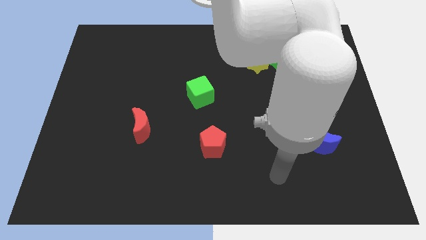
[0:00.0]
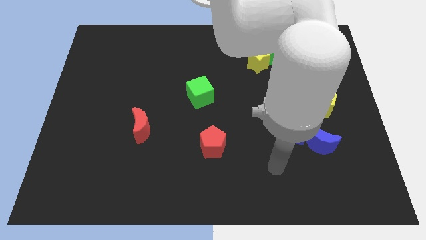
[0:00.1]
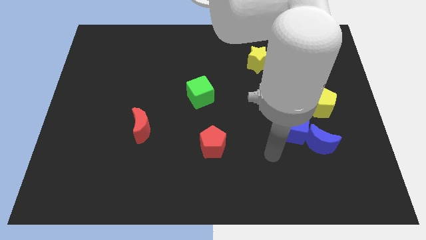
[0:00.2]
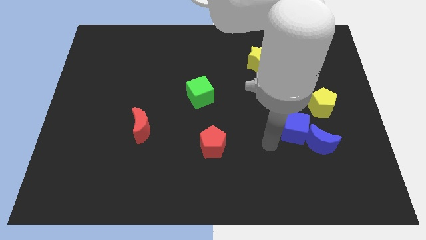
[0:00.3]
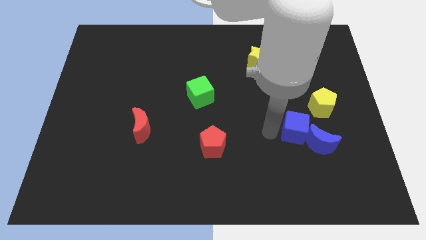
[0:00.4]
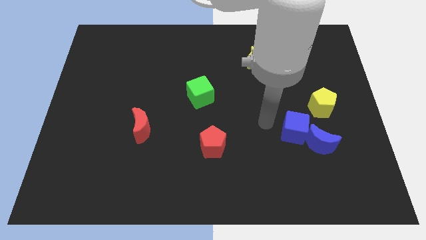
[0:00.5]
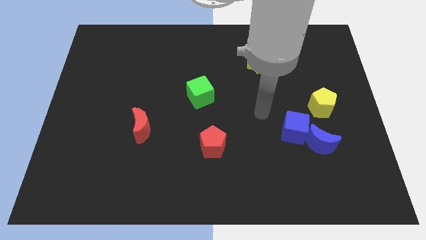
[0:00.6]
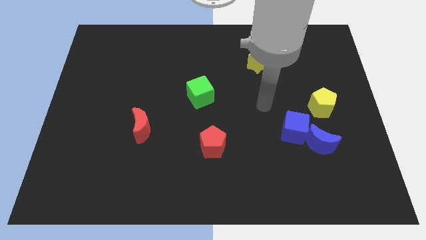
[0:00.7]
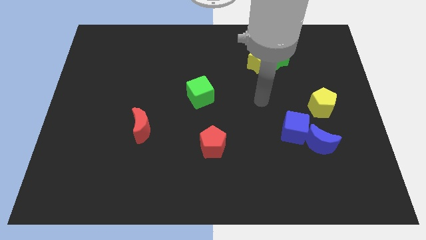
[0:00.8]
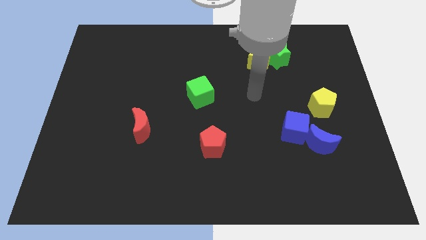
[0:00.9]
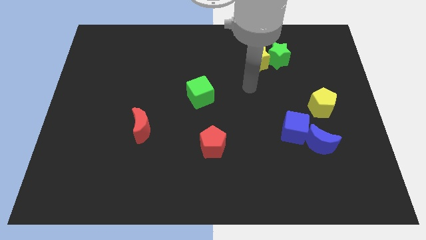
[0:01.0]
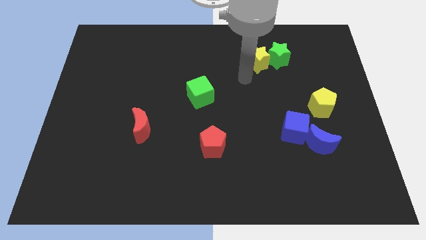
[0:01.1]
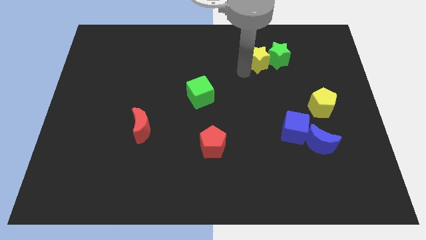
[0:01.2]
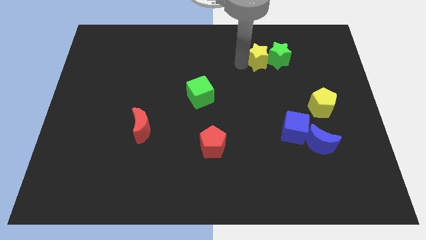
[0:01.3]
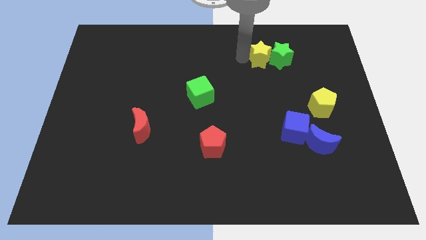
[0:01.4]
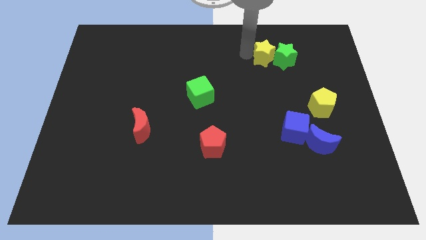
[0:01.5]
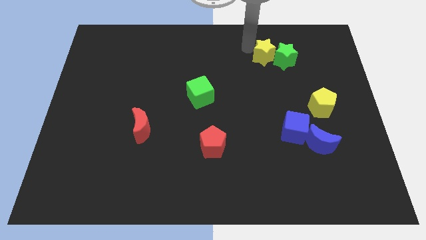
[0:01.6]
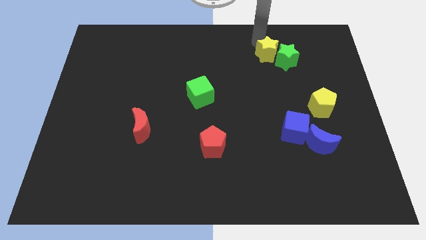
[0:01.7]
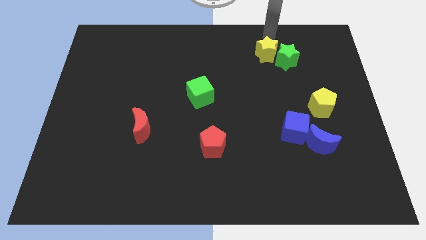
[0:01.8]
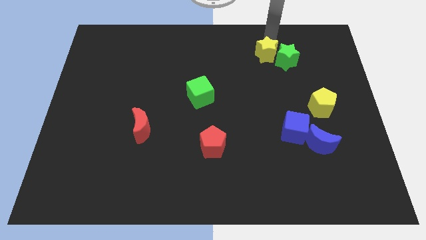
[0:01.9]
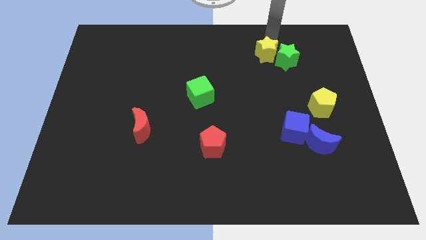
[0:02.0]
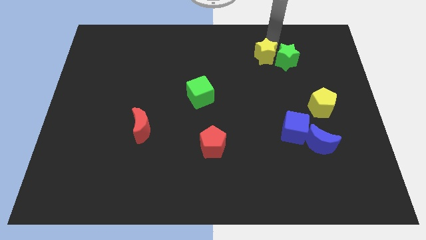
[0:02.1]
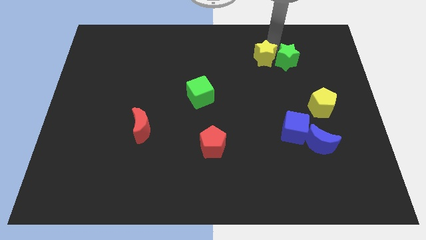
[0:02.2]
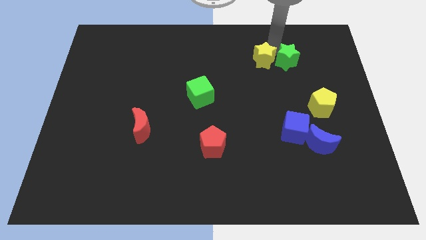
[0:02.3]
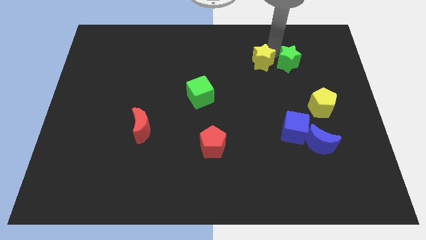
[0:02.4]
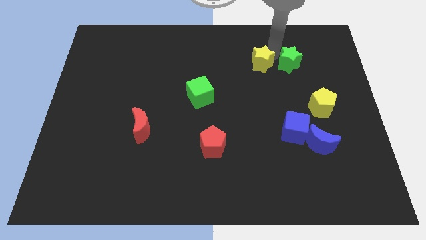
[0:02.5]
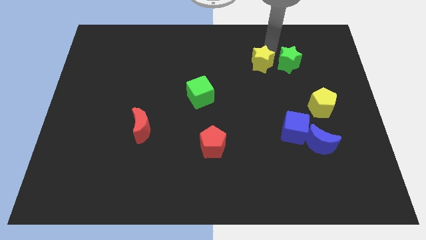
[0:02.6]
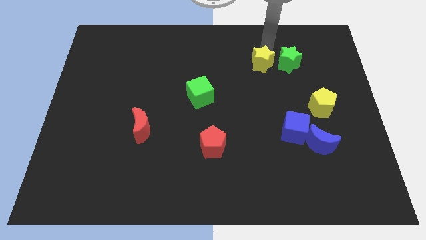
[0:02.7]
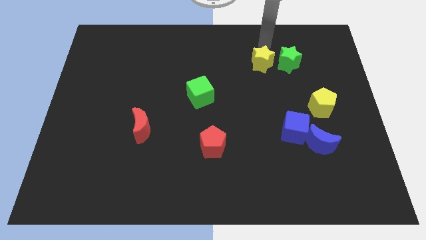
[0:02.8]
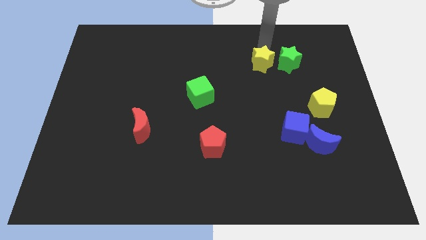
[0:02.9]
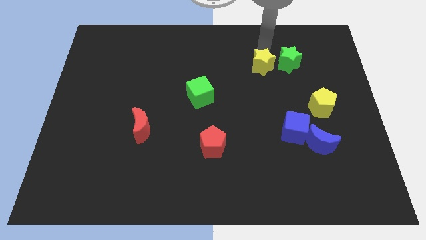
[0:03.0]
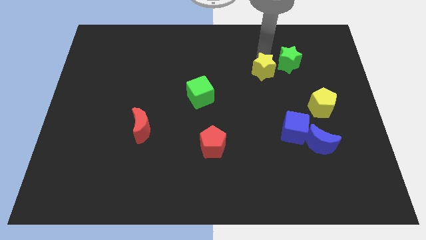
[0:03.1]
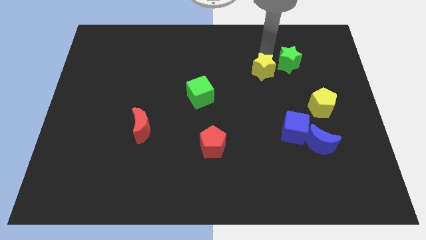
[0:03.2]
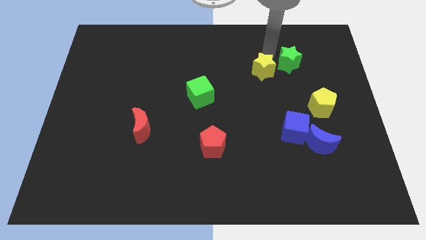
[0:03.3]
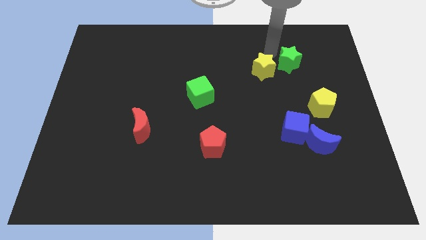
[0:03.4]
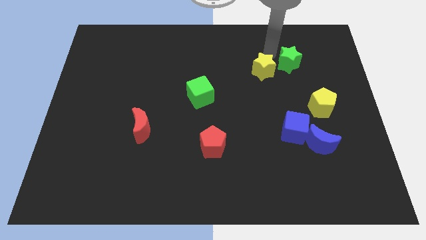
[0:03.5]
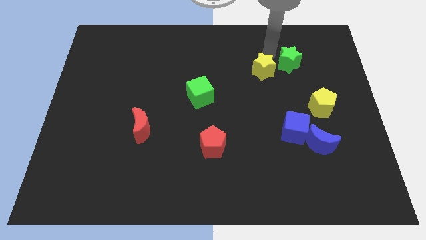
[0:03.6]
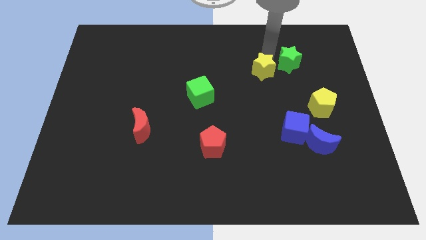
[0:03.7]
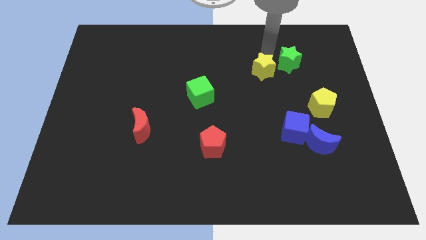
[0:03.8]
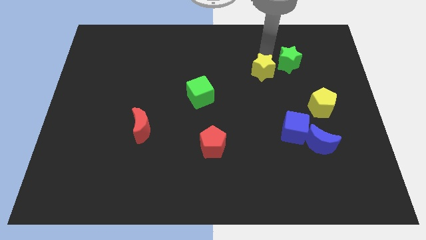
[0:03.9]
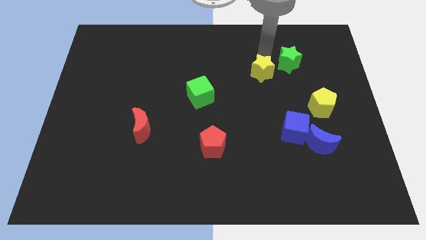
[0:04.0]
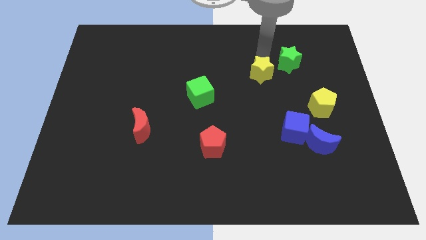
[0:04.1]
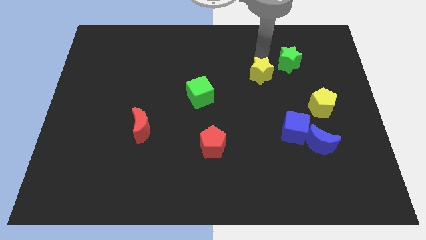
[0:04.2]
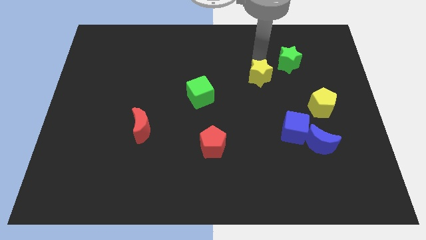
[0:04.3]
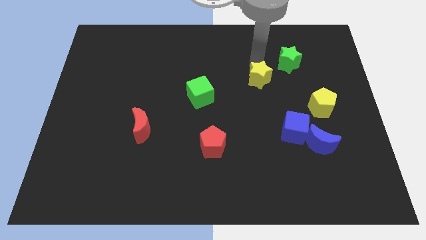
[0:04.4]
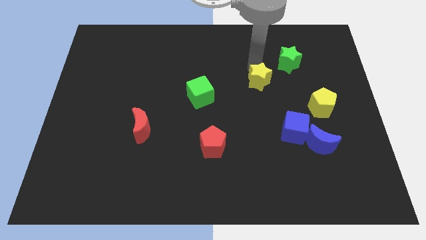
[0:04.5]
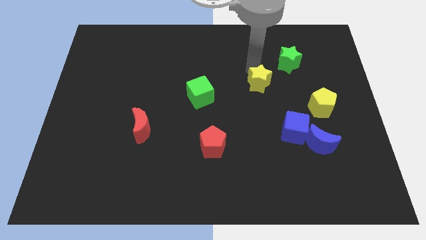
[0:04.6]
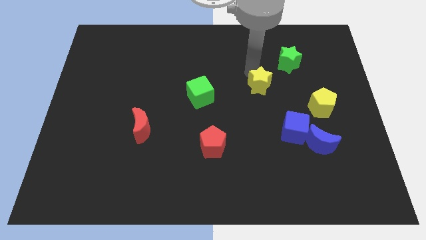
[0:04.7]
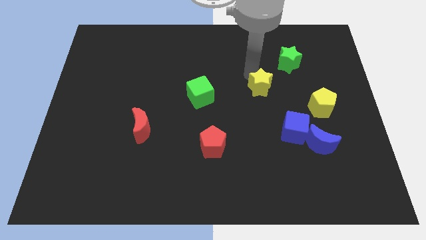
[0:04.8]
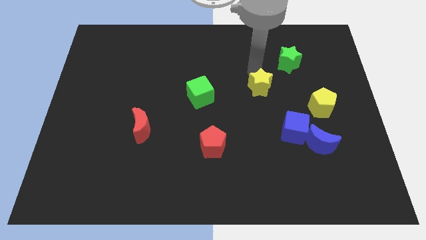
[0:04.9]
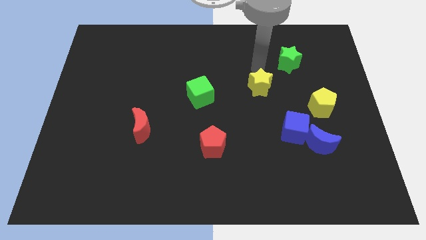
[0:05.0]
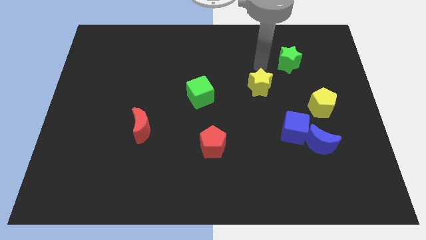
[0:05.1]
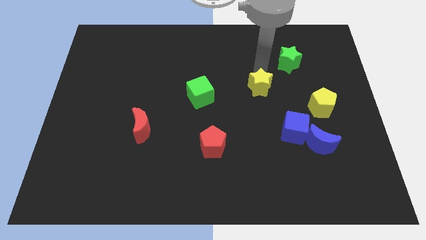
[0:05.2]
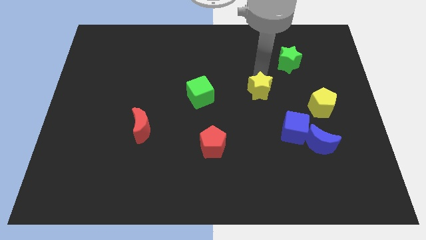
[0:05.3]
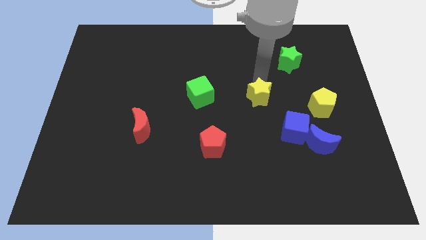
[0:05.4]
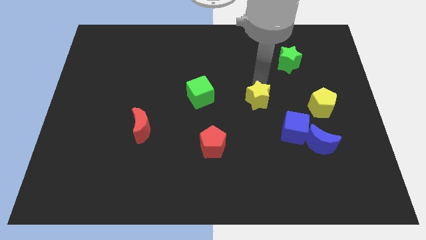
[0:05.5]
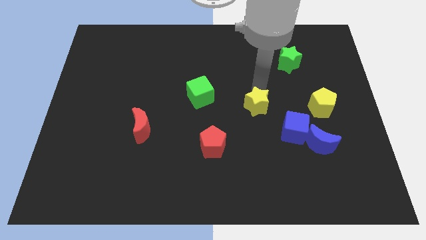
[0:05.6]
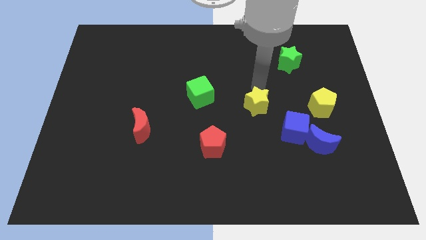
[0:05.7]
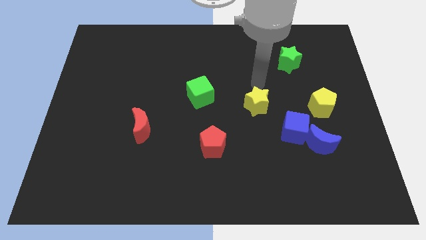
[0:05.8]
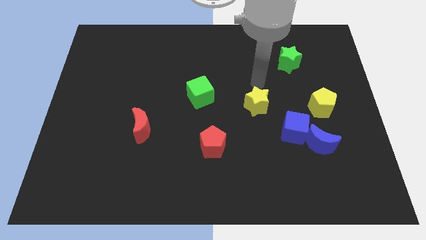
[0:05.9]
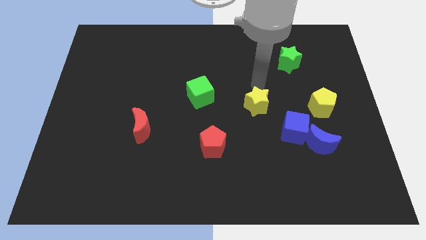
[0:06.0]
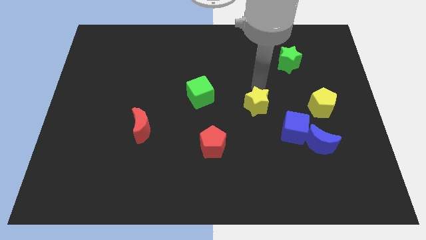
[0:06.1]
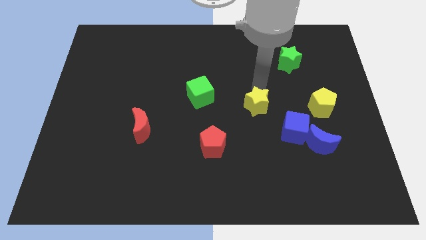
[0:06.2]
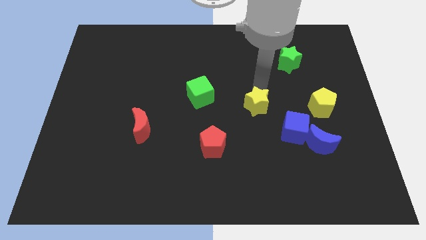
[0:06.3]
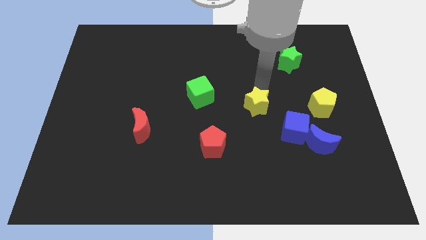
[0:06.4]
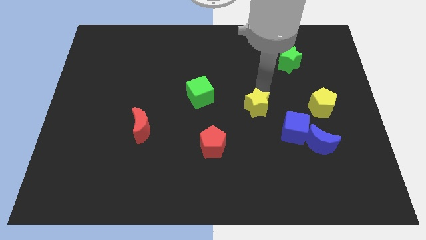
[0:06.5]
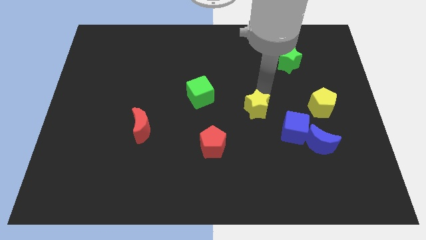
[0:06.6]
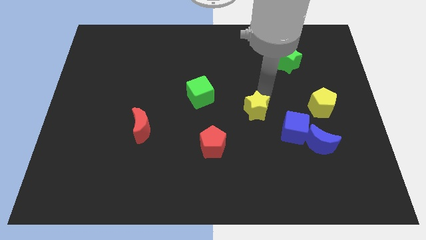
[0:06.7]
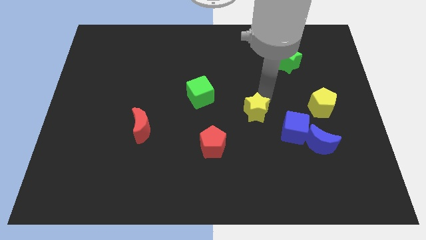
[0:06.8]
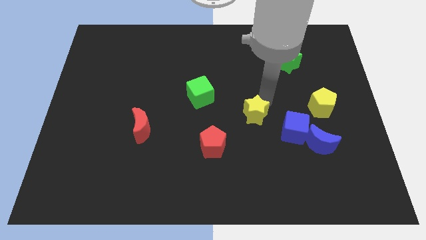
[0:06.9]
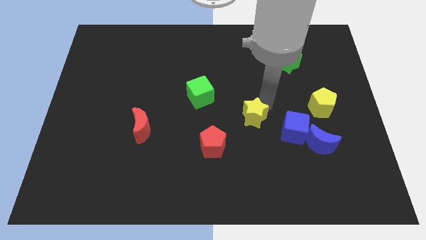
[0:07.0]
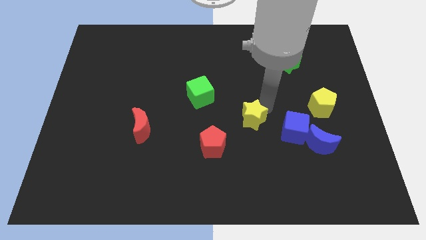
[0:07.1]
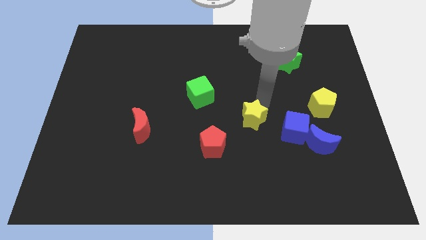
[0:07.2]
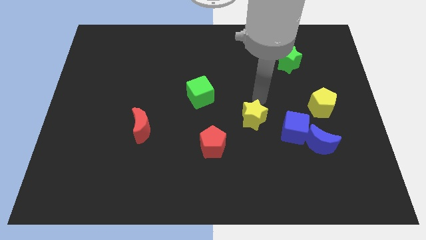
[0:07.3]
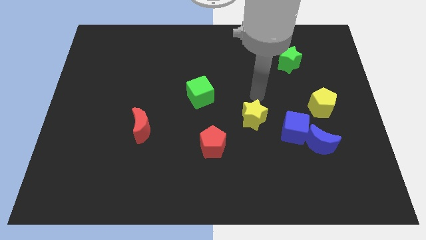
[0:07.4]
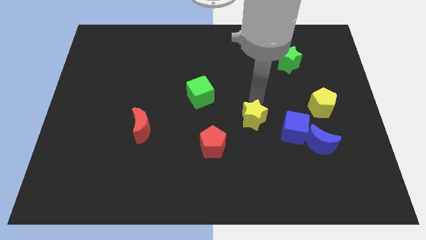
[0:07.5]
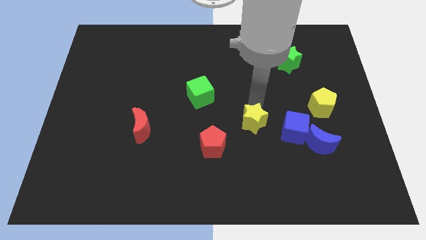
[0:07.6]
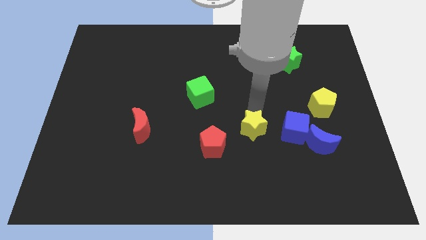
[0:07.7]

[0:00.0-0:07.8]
slide the yellow star down
